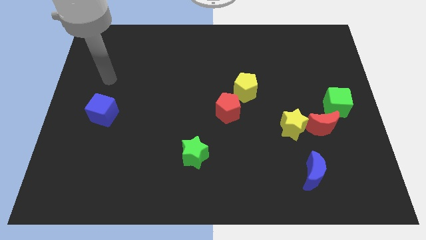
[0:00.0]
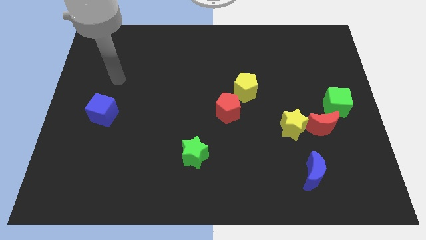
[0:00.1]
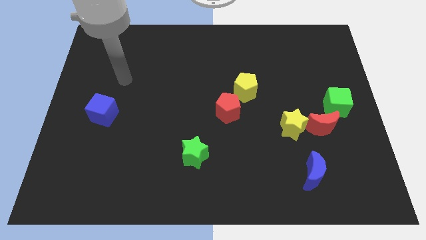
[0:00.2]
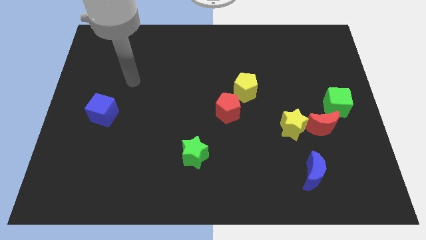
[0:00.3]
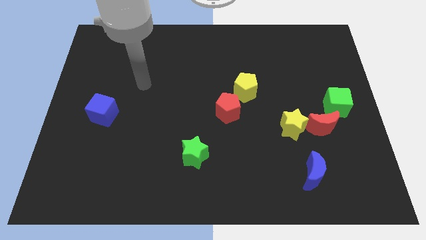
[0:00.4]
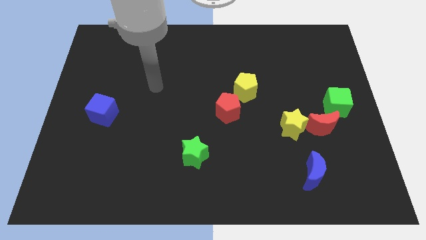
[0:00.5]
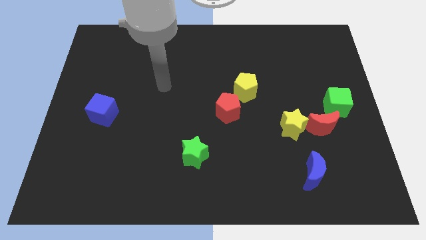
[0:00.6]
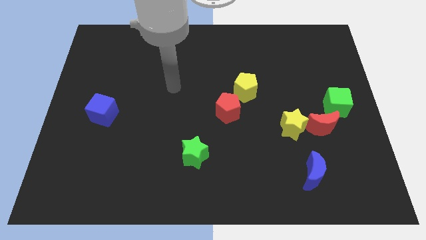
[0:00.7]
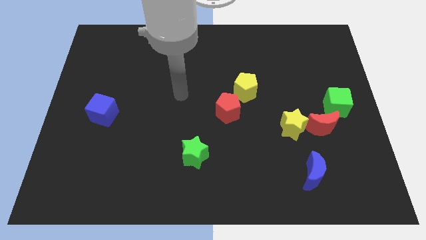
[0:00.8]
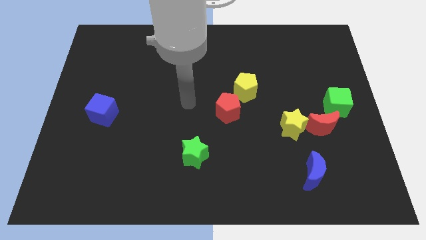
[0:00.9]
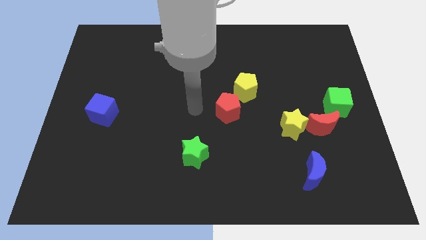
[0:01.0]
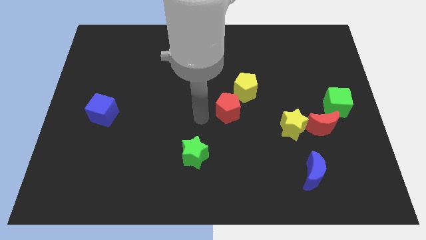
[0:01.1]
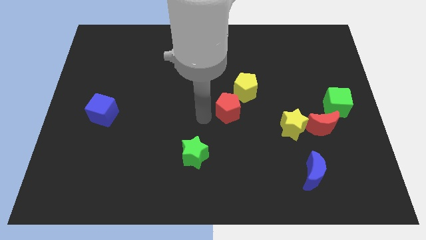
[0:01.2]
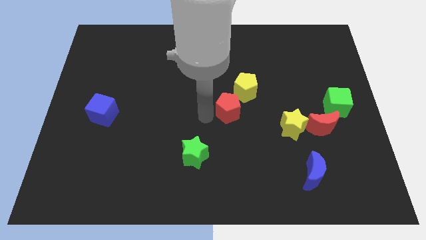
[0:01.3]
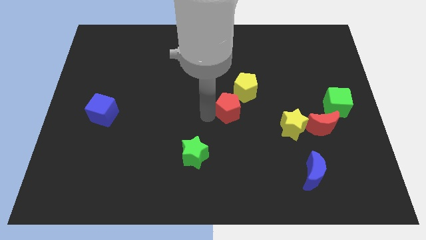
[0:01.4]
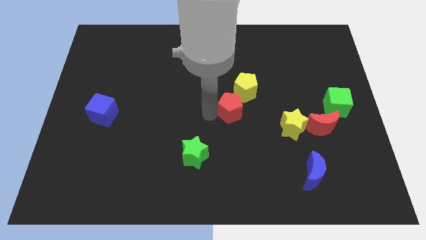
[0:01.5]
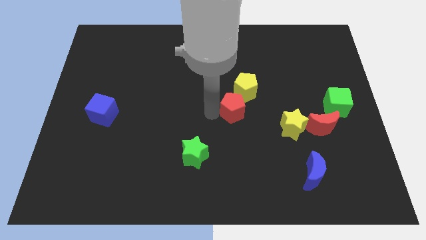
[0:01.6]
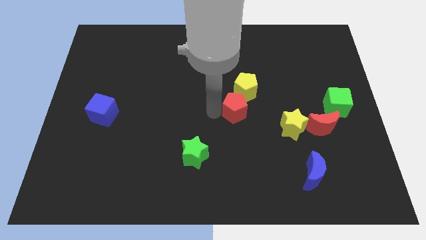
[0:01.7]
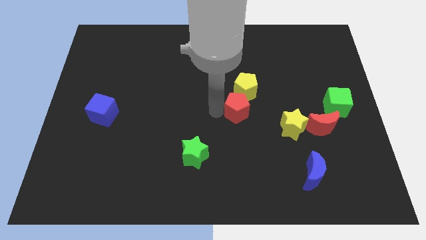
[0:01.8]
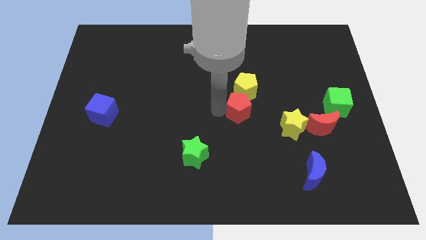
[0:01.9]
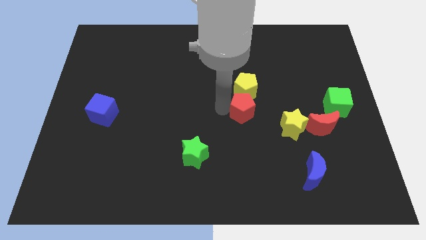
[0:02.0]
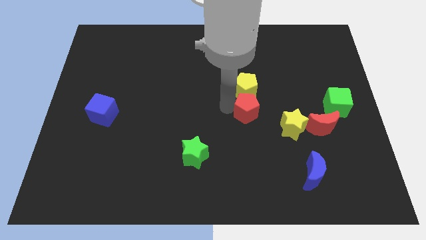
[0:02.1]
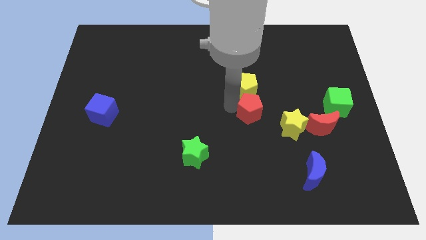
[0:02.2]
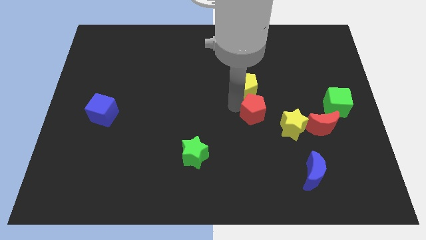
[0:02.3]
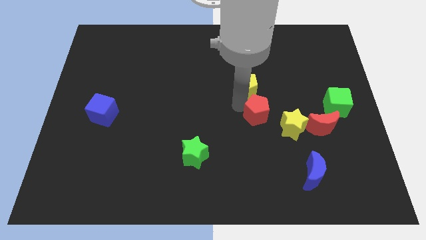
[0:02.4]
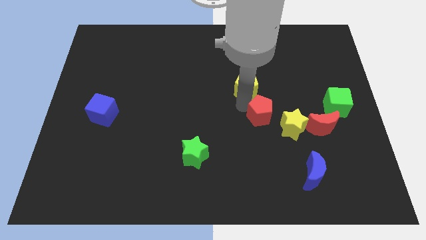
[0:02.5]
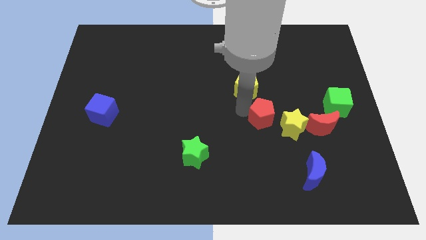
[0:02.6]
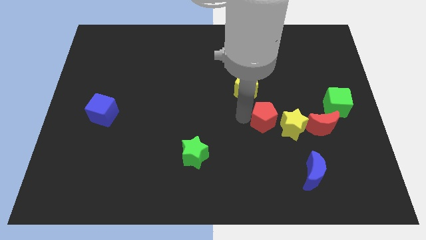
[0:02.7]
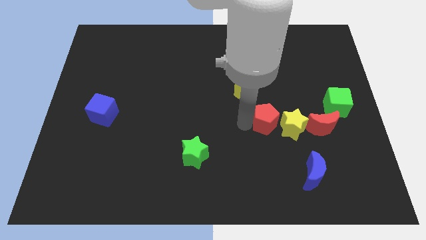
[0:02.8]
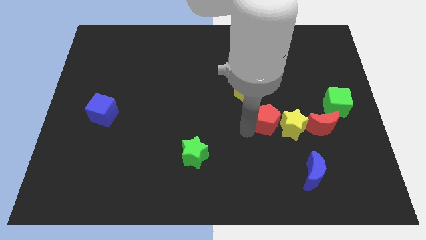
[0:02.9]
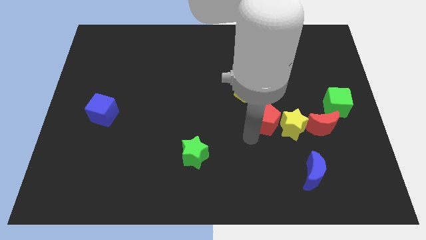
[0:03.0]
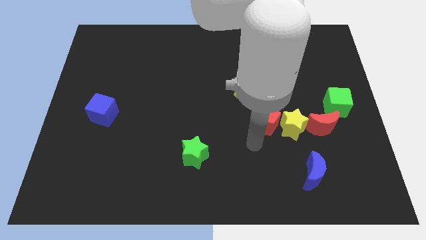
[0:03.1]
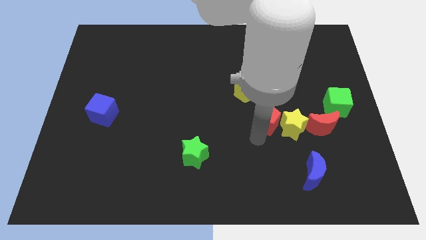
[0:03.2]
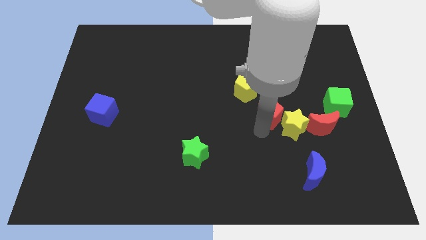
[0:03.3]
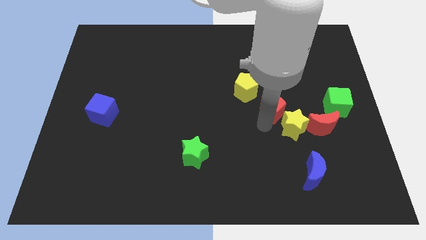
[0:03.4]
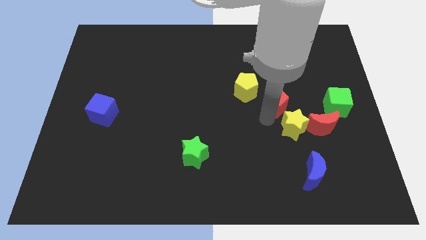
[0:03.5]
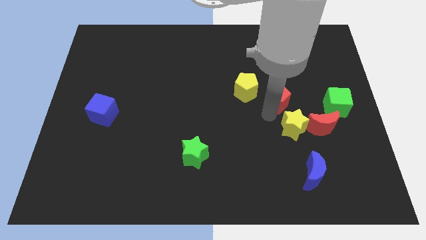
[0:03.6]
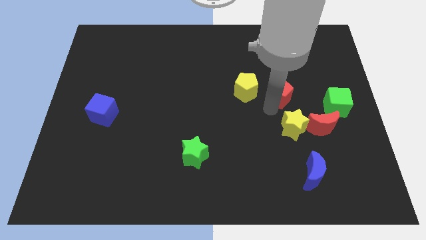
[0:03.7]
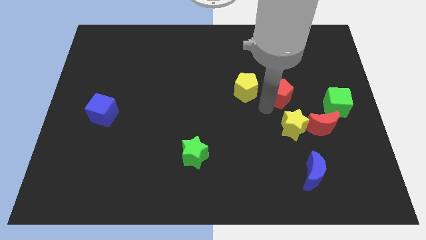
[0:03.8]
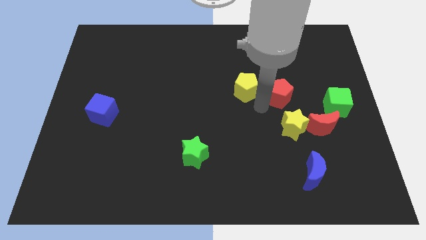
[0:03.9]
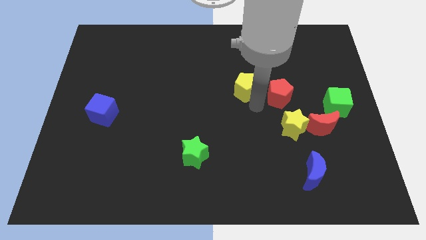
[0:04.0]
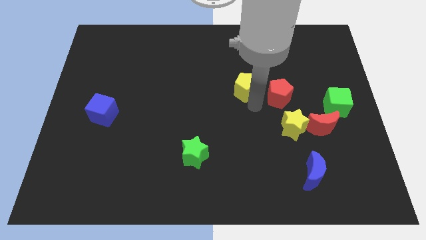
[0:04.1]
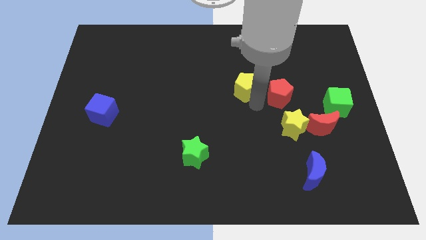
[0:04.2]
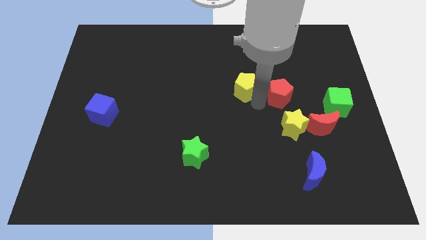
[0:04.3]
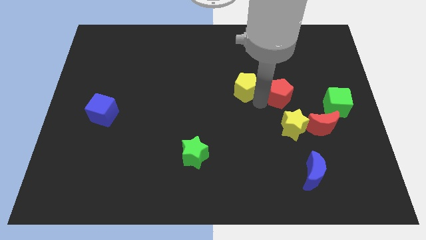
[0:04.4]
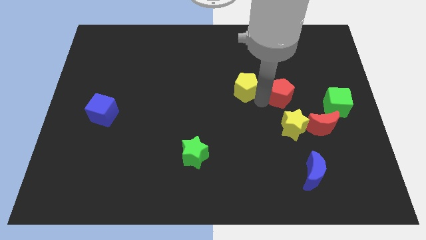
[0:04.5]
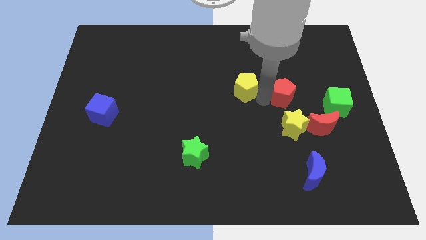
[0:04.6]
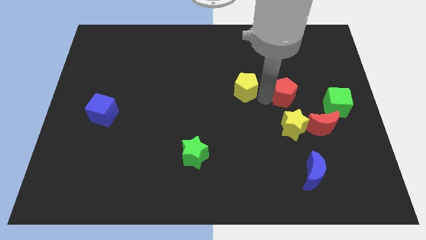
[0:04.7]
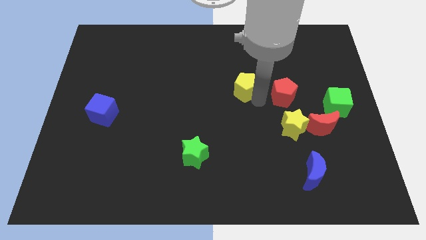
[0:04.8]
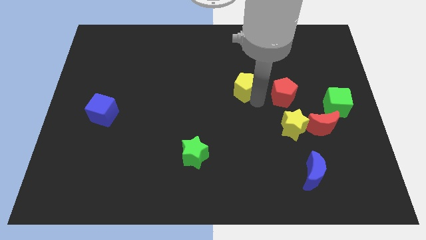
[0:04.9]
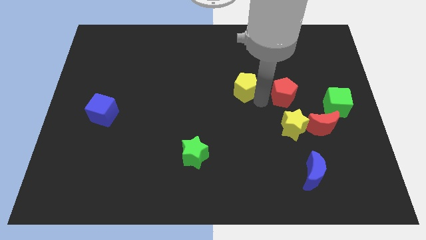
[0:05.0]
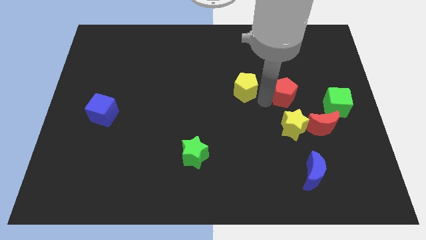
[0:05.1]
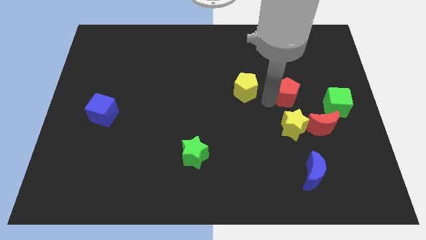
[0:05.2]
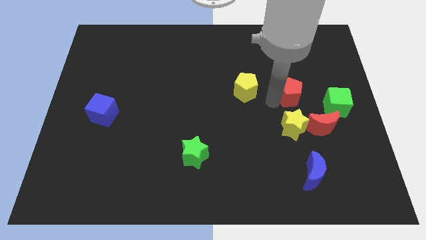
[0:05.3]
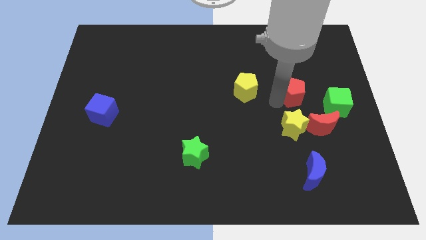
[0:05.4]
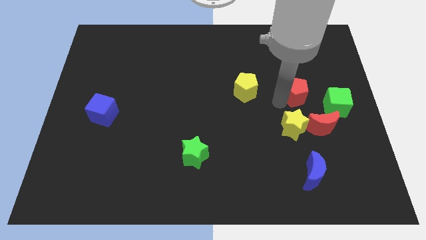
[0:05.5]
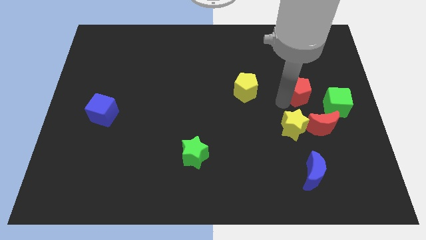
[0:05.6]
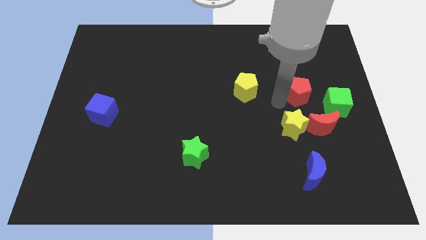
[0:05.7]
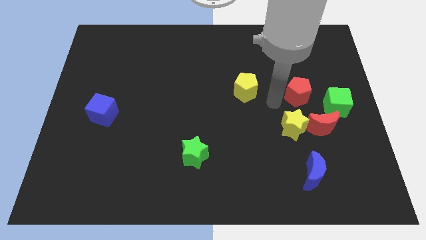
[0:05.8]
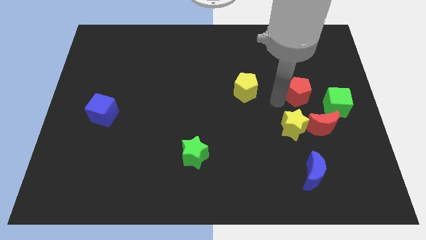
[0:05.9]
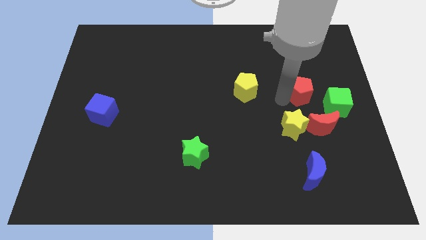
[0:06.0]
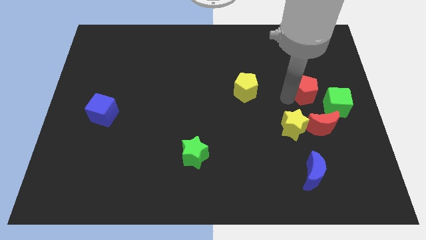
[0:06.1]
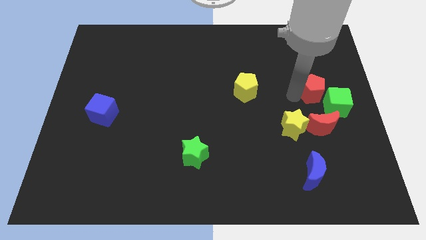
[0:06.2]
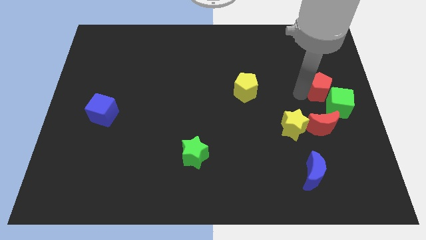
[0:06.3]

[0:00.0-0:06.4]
put the red pentagon to the right side
